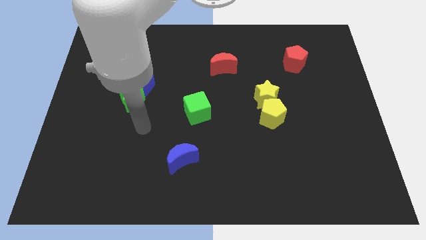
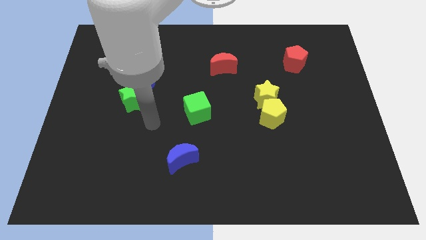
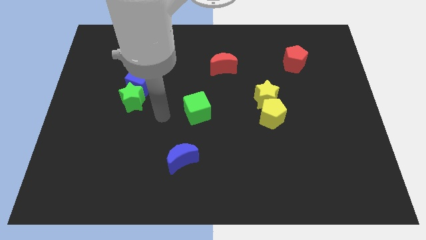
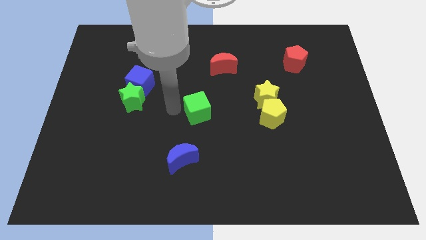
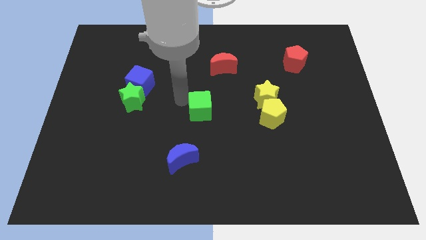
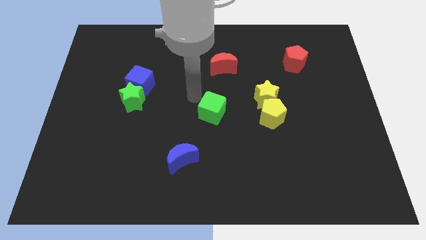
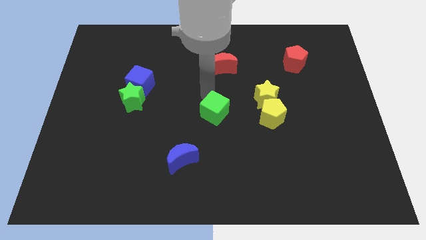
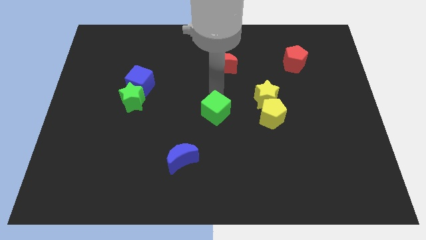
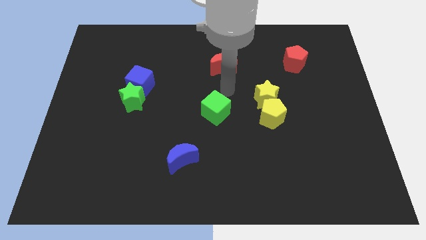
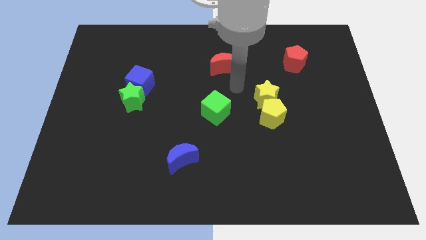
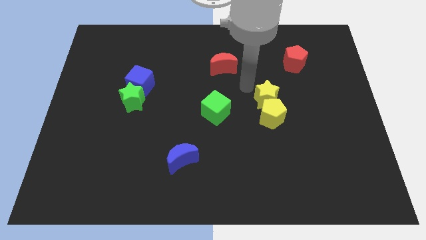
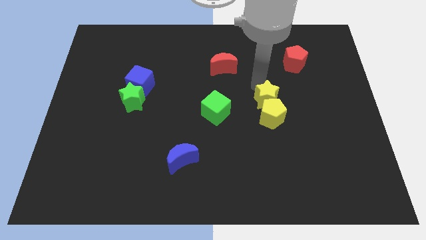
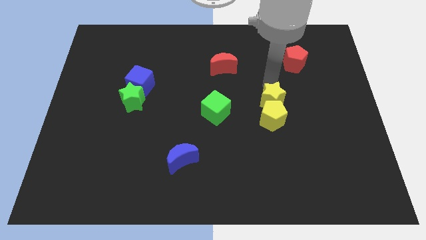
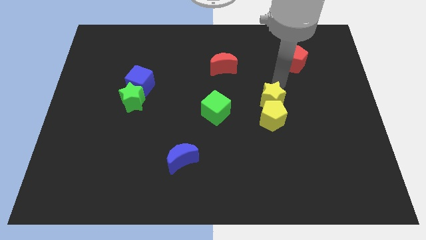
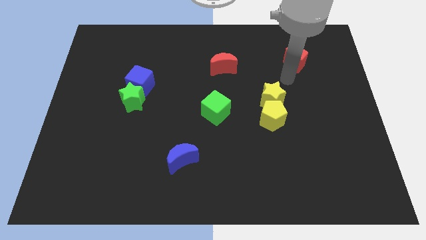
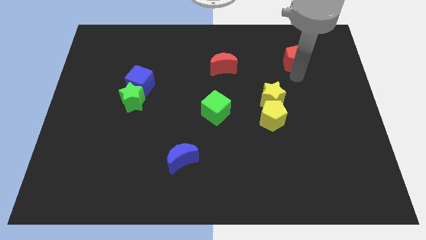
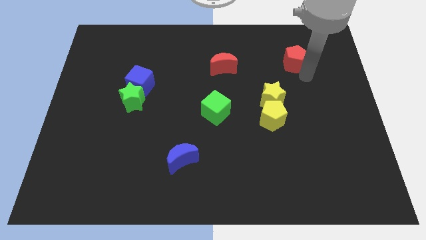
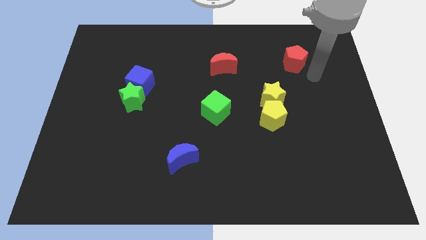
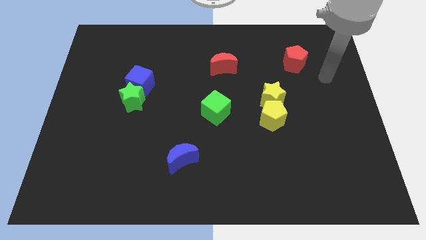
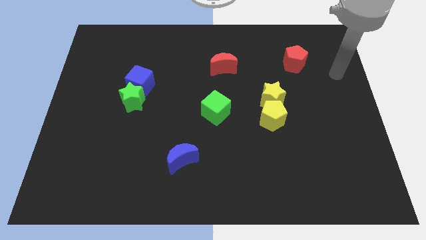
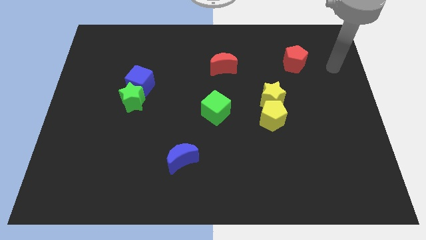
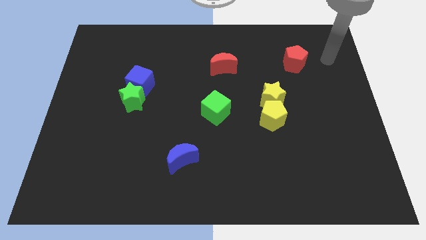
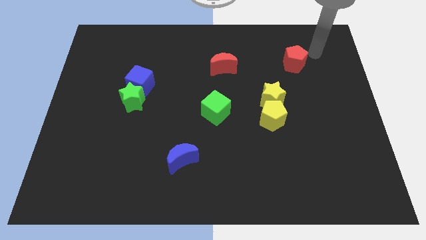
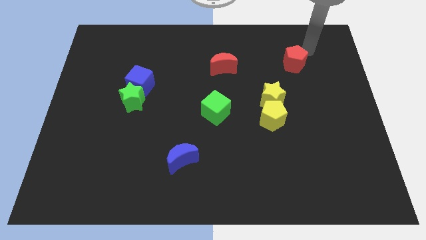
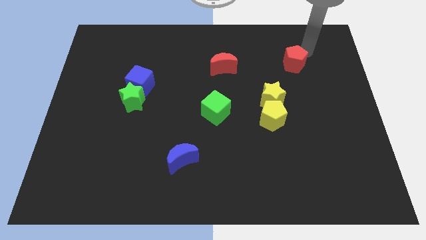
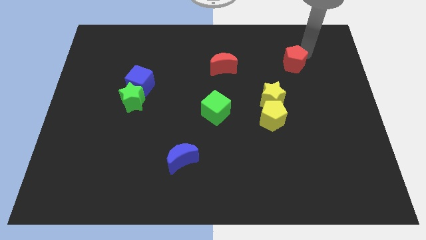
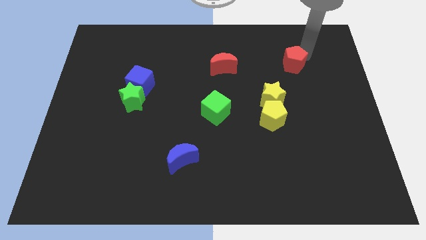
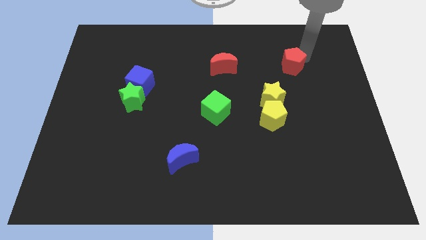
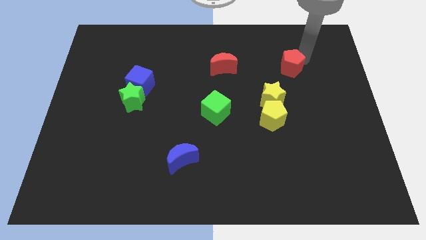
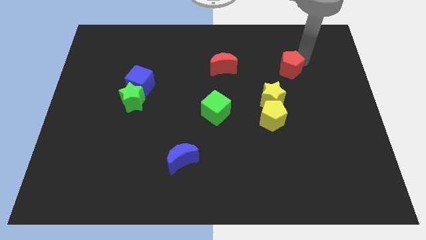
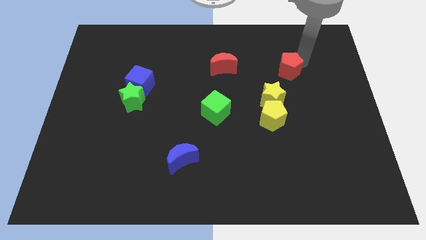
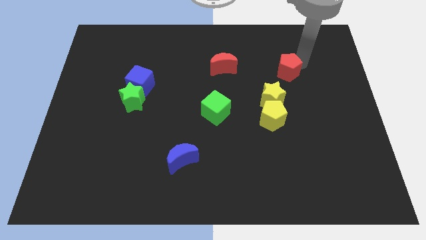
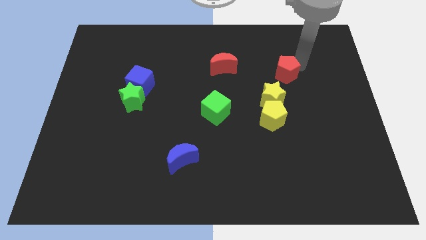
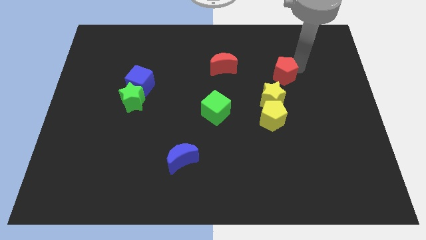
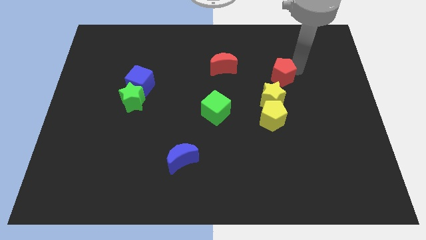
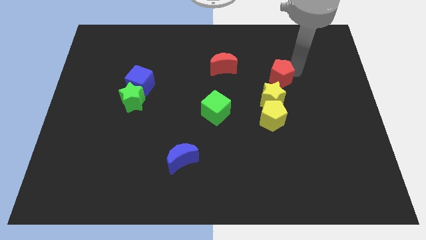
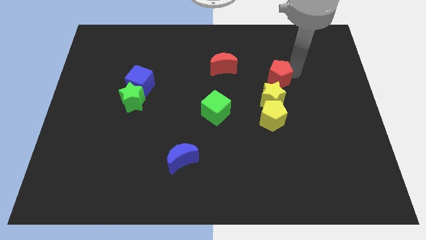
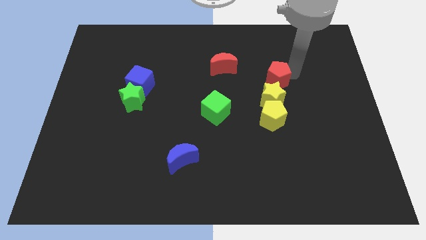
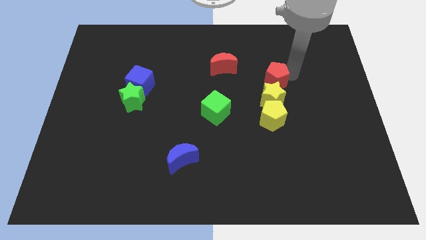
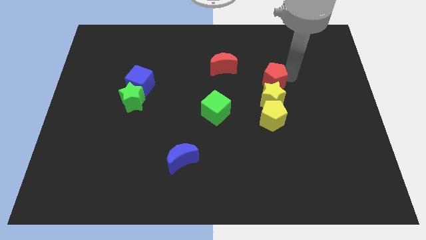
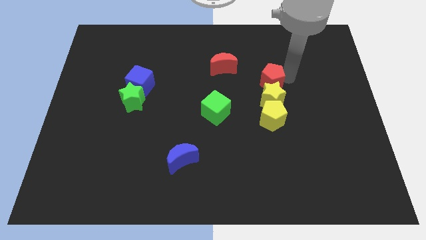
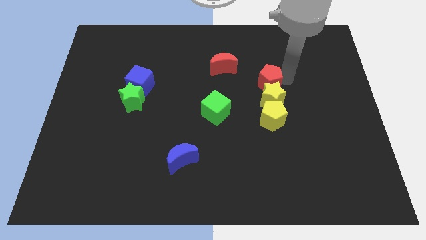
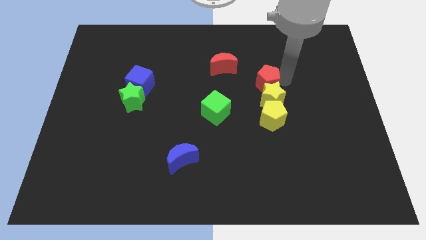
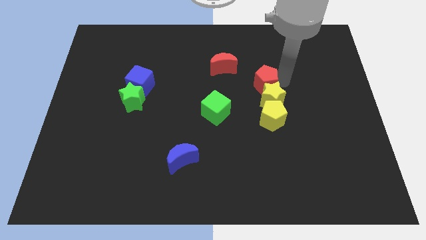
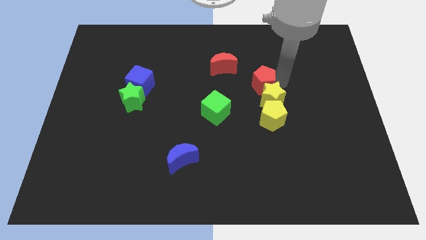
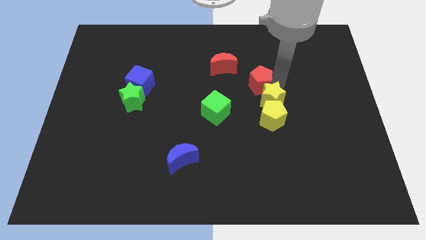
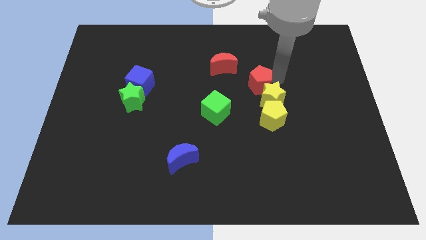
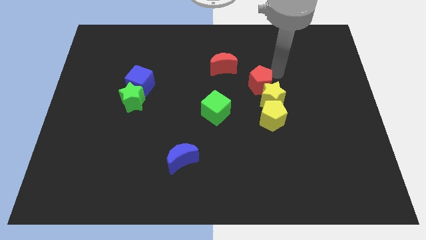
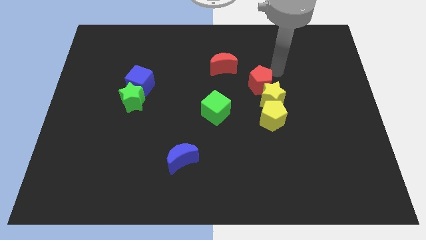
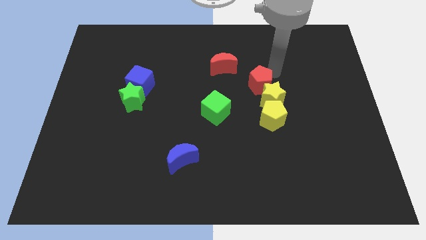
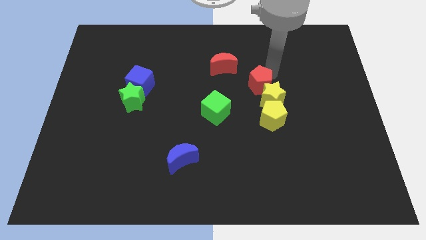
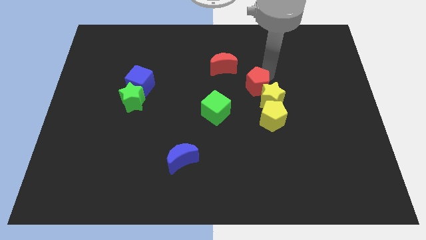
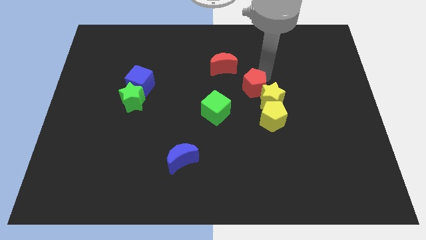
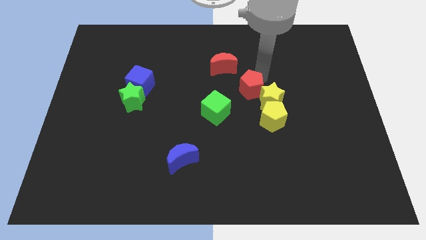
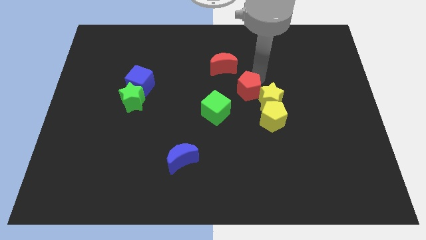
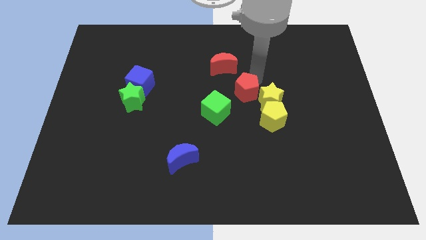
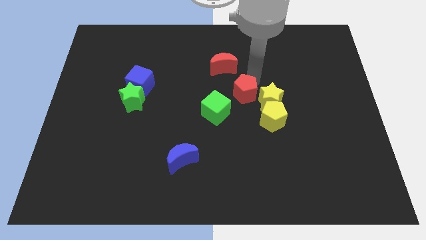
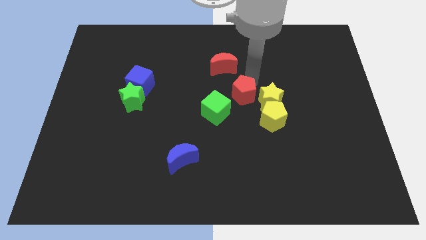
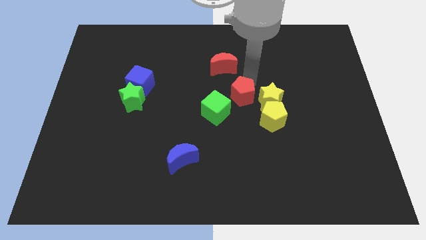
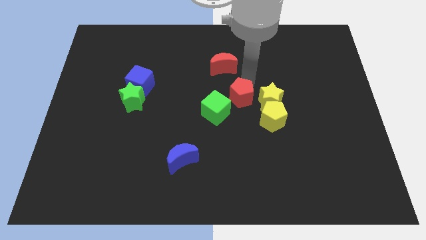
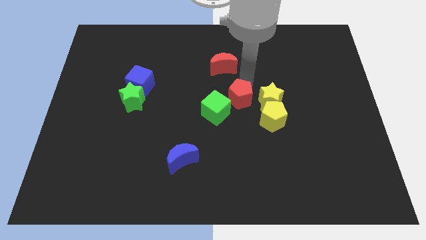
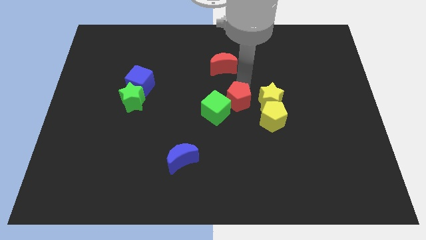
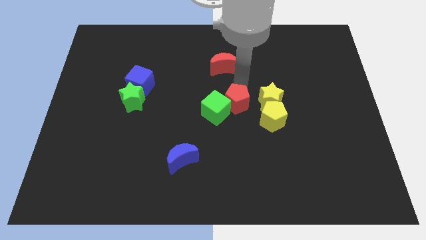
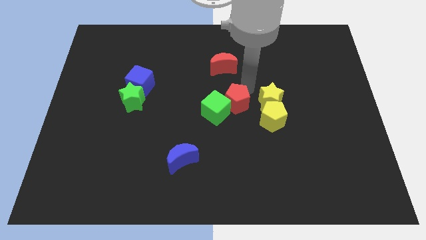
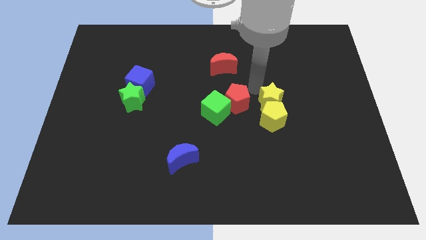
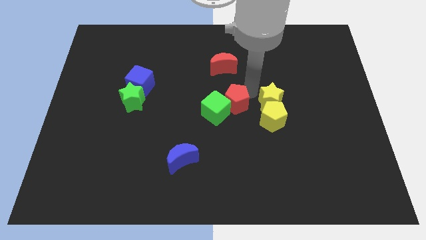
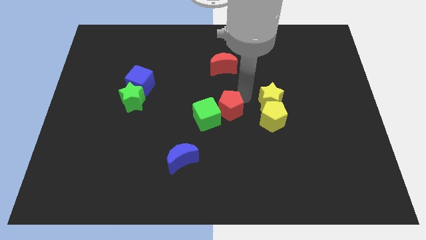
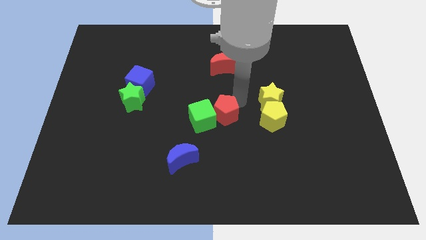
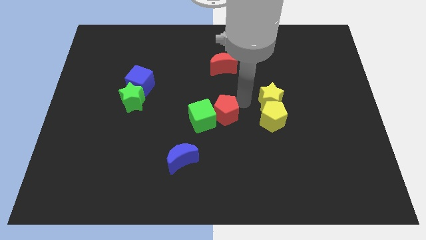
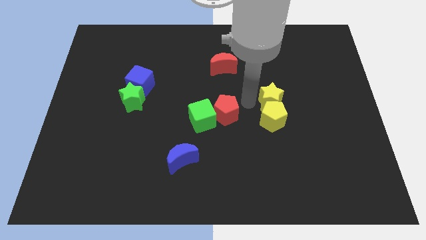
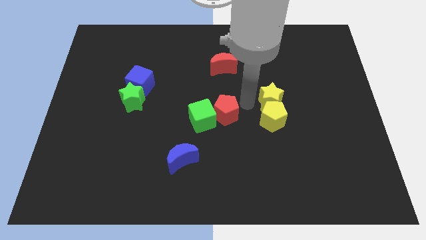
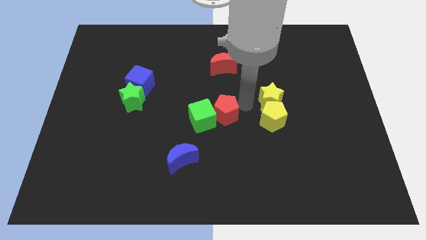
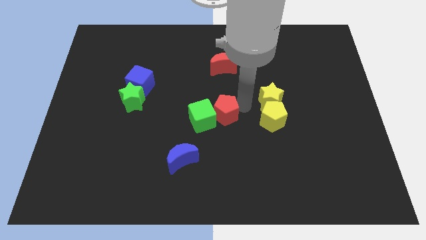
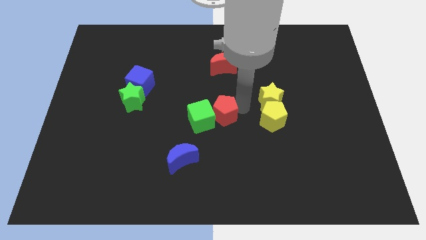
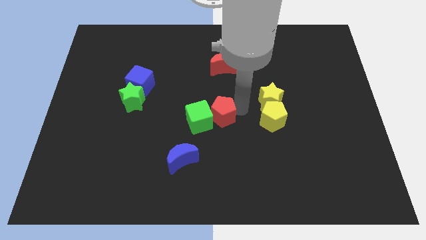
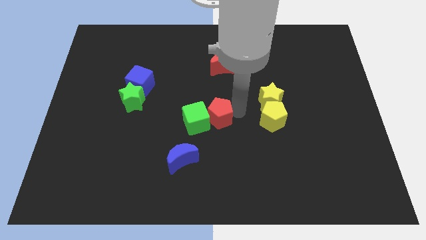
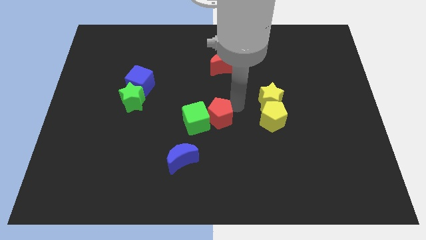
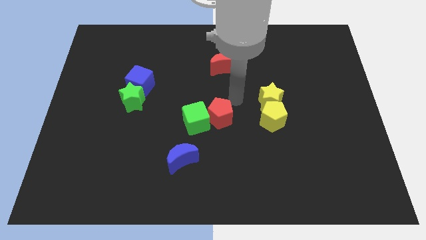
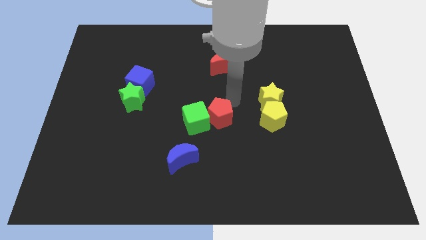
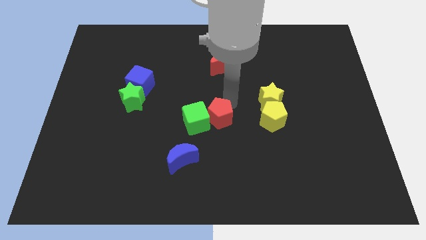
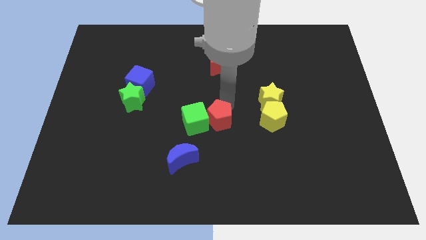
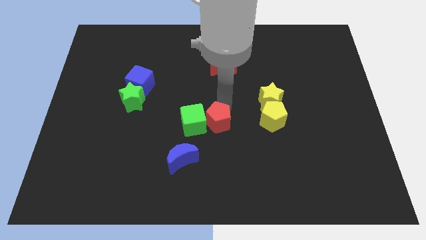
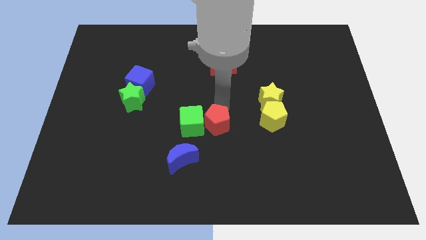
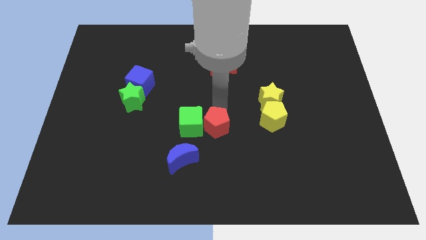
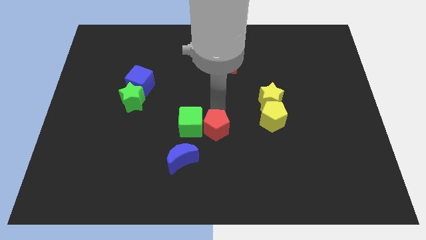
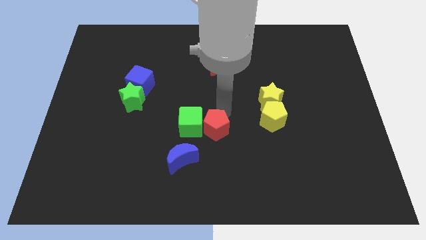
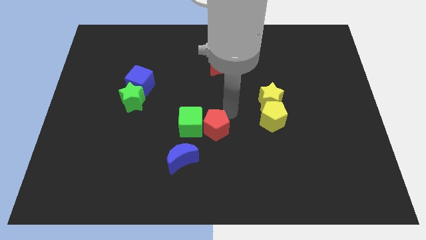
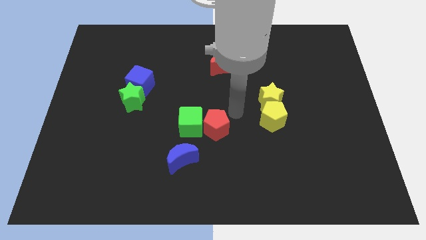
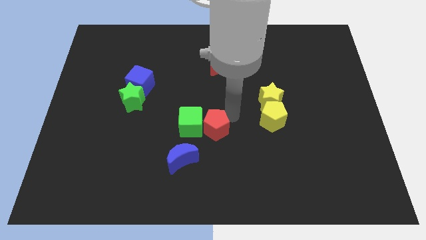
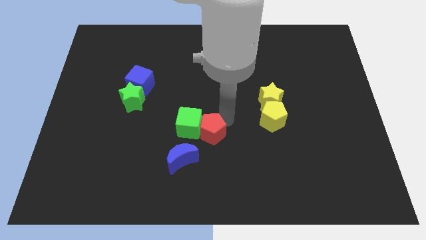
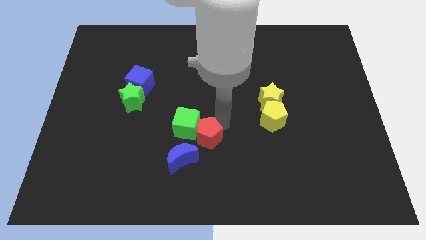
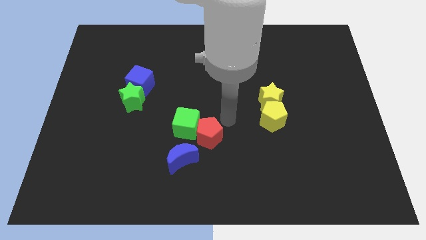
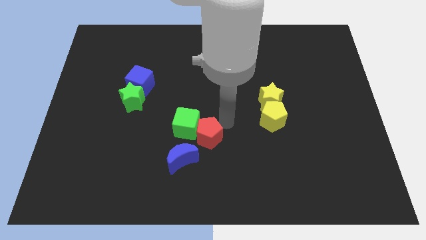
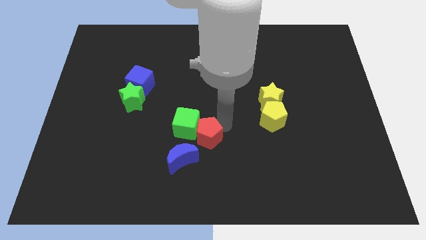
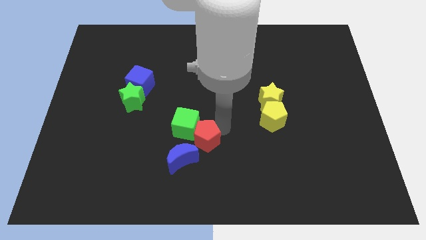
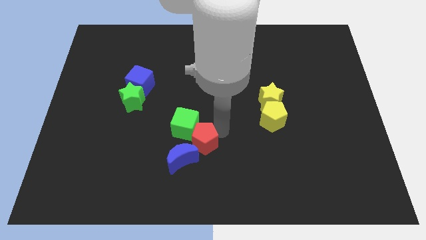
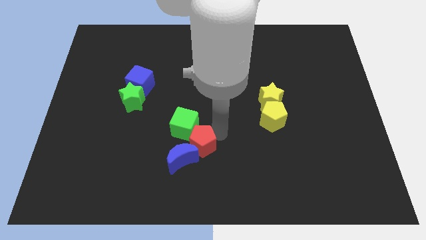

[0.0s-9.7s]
push the red pentagon towards the blue moon
